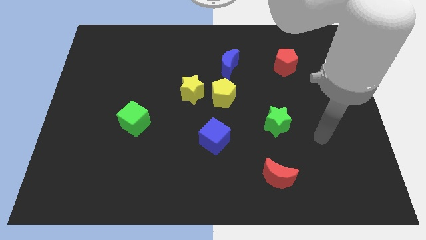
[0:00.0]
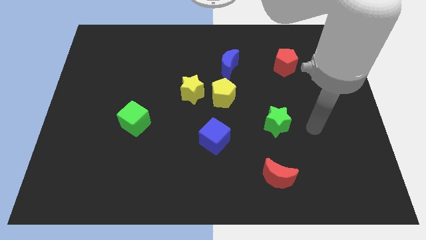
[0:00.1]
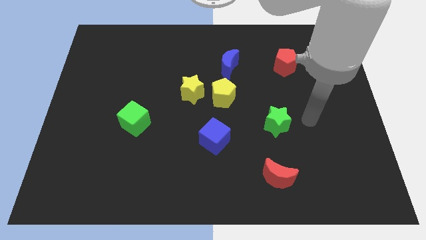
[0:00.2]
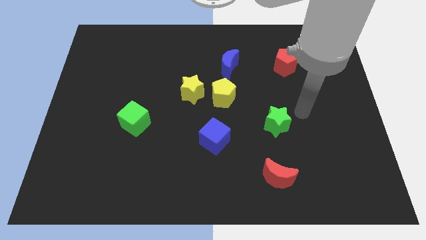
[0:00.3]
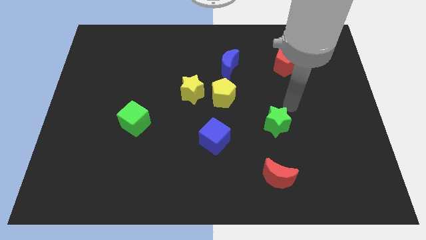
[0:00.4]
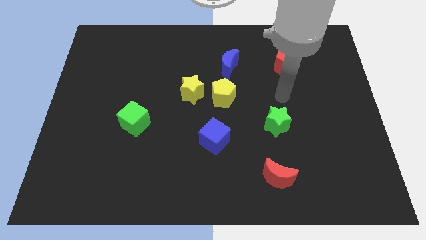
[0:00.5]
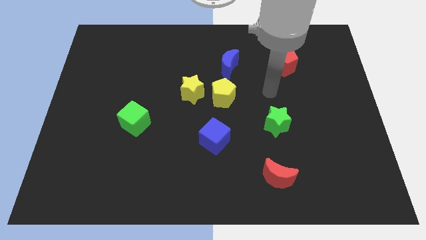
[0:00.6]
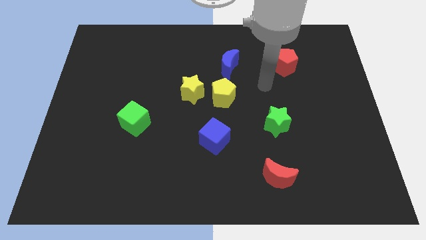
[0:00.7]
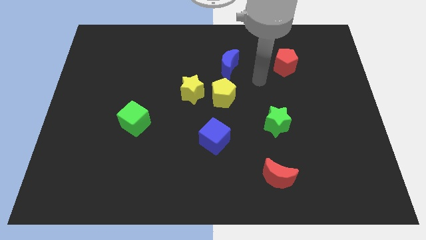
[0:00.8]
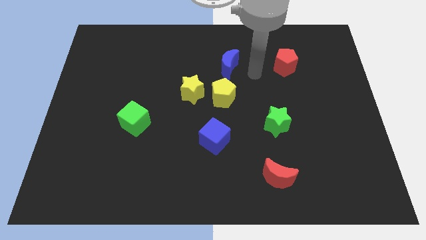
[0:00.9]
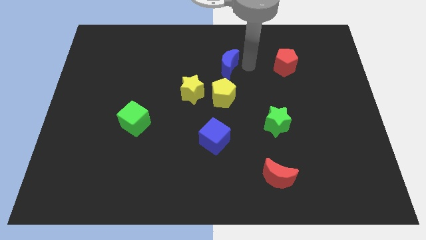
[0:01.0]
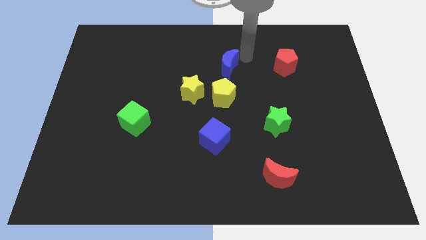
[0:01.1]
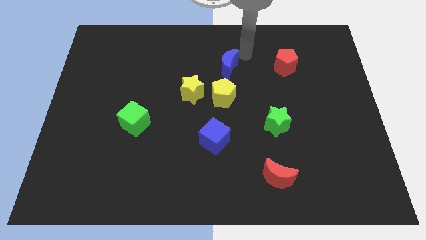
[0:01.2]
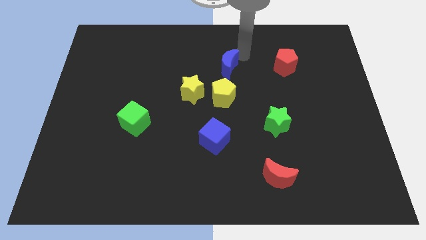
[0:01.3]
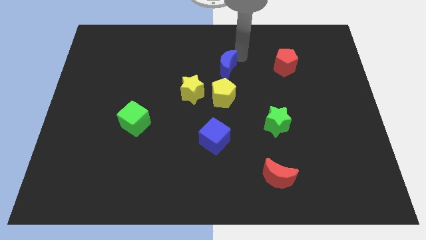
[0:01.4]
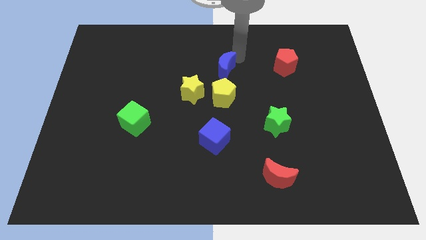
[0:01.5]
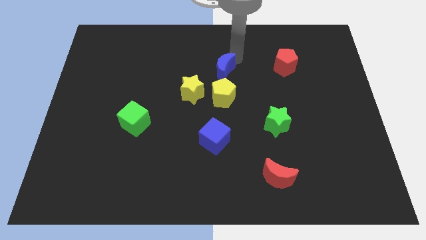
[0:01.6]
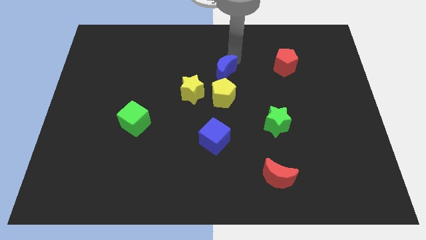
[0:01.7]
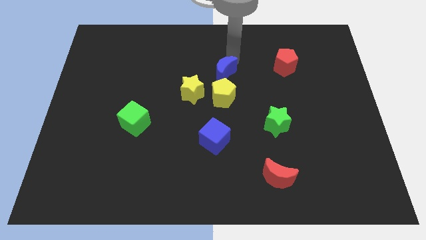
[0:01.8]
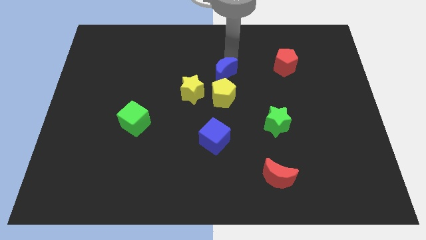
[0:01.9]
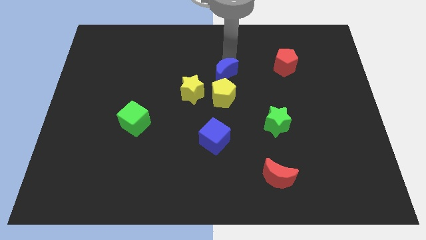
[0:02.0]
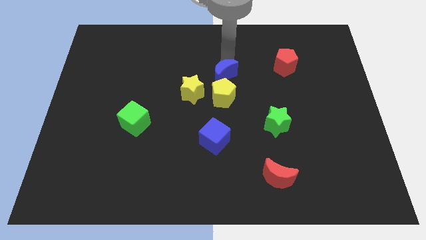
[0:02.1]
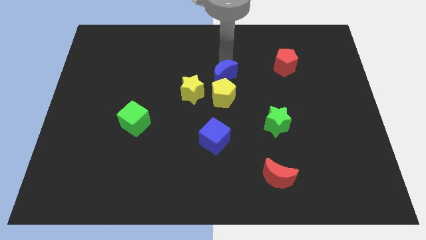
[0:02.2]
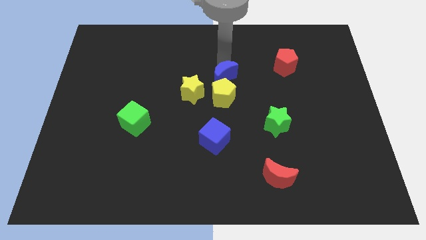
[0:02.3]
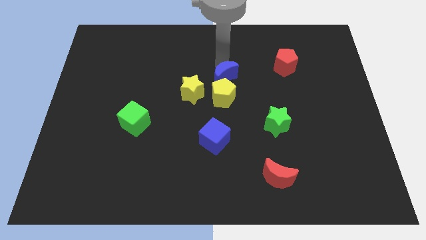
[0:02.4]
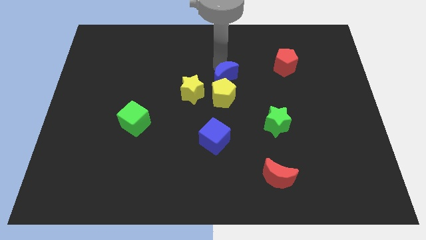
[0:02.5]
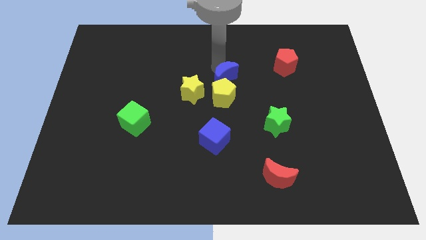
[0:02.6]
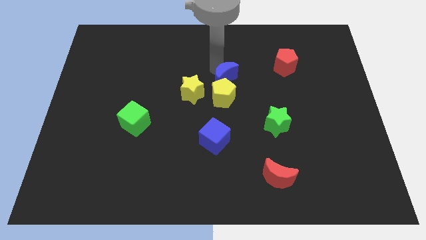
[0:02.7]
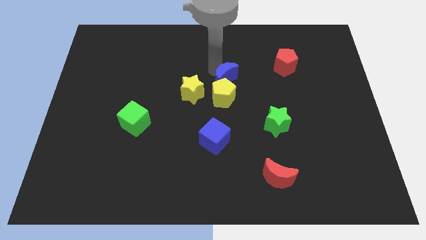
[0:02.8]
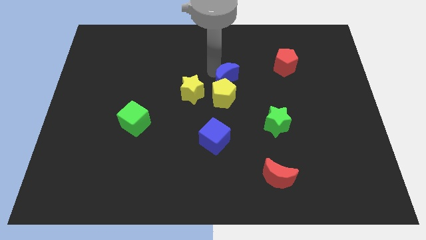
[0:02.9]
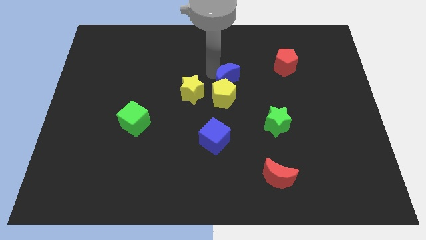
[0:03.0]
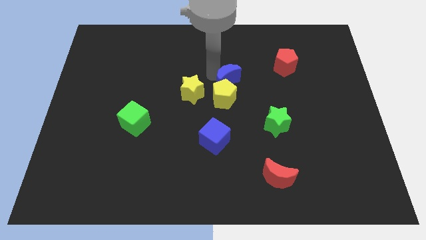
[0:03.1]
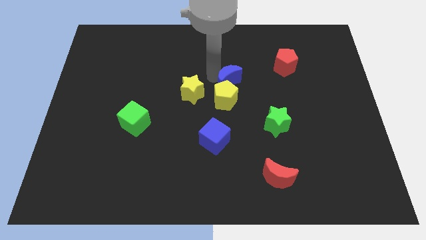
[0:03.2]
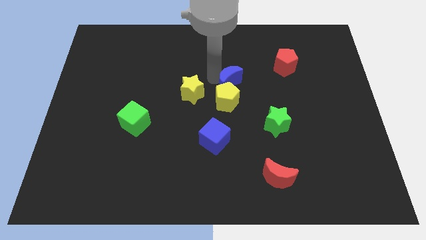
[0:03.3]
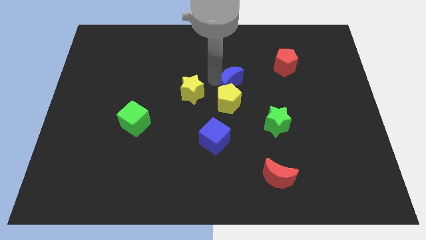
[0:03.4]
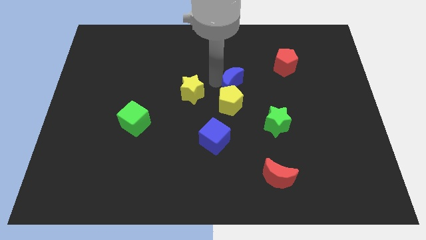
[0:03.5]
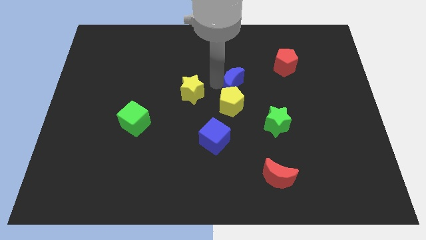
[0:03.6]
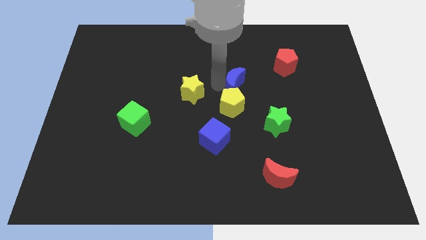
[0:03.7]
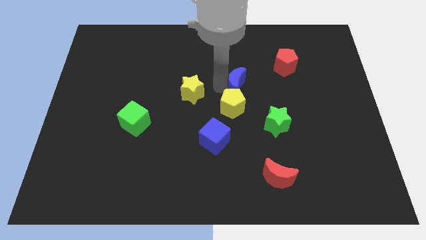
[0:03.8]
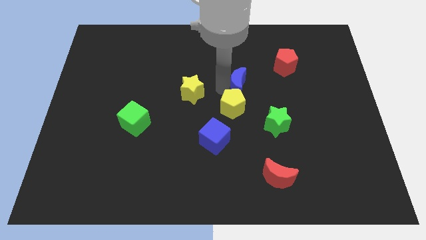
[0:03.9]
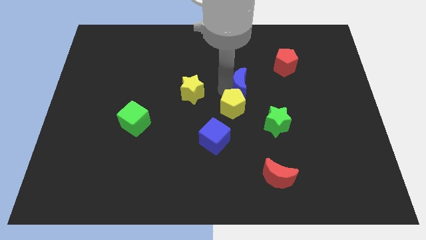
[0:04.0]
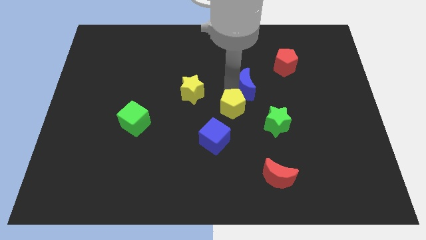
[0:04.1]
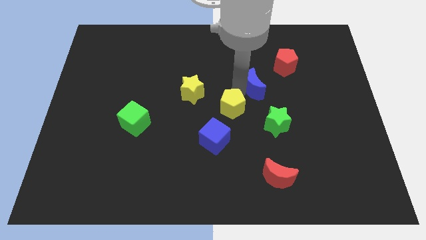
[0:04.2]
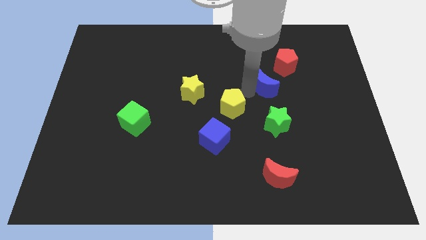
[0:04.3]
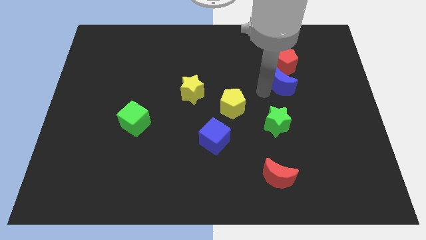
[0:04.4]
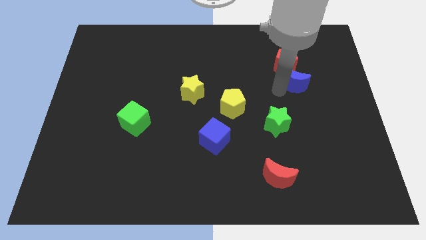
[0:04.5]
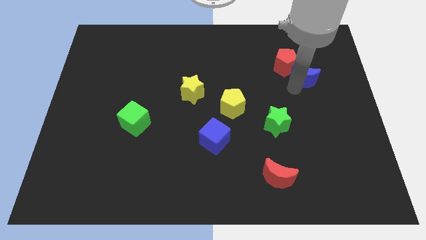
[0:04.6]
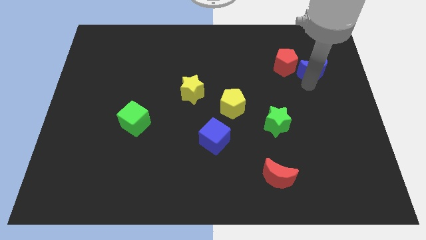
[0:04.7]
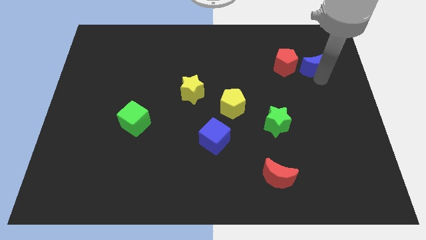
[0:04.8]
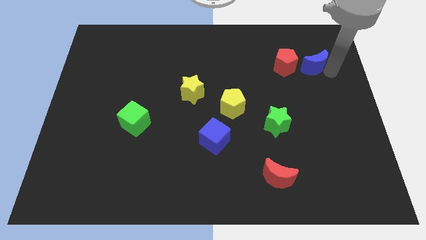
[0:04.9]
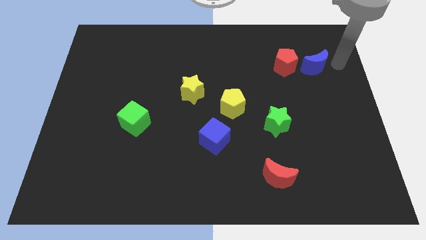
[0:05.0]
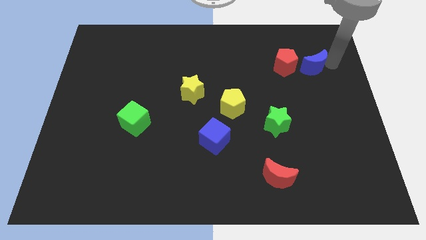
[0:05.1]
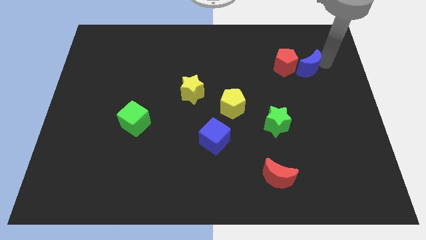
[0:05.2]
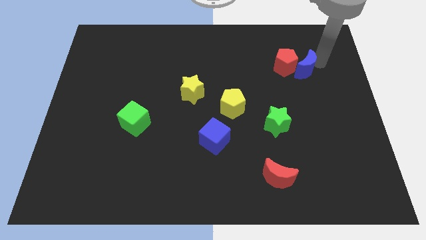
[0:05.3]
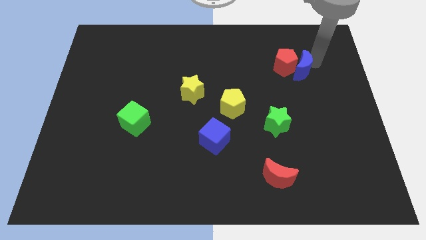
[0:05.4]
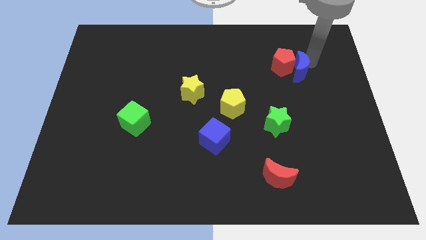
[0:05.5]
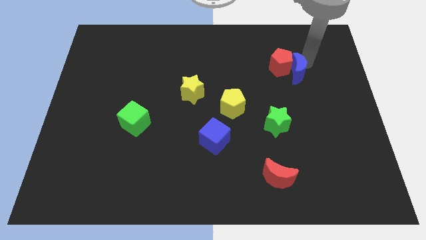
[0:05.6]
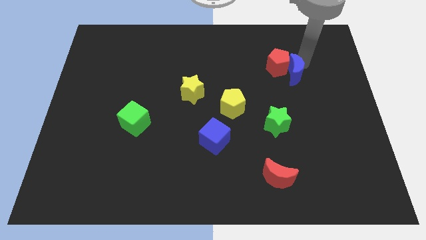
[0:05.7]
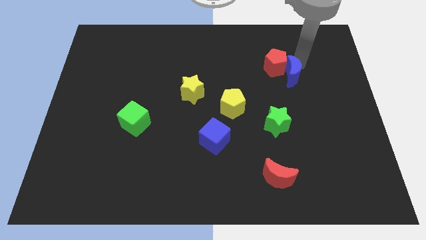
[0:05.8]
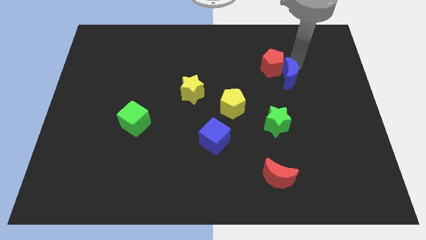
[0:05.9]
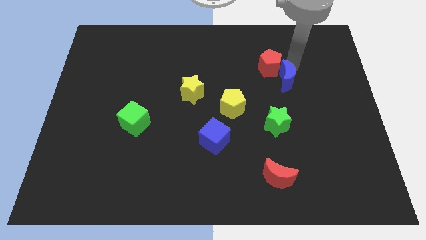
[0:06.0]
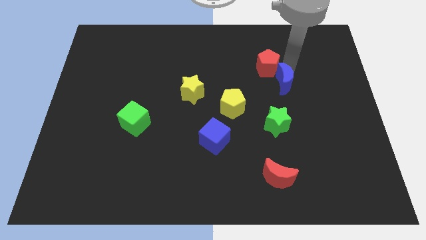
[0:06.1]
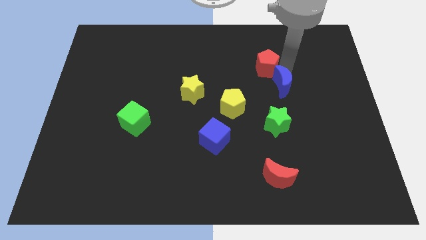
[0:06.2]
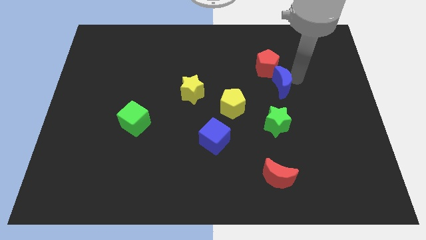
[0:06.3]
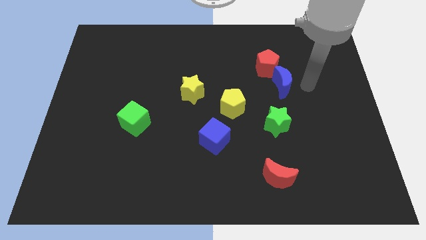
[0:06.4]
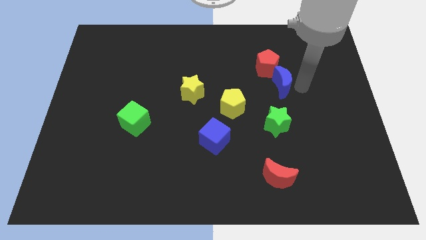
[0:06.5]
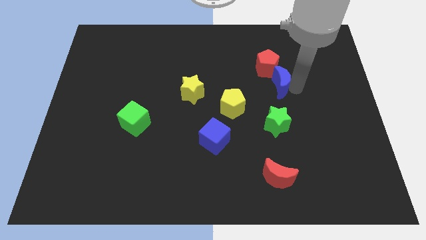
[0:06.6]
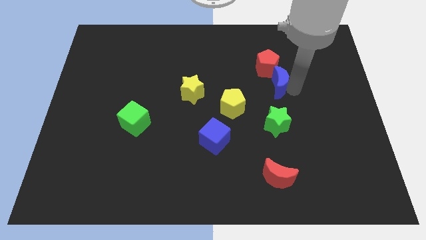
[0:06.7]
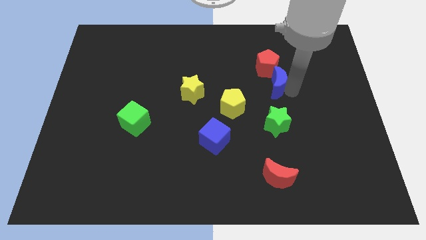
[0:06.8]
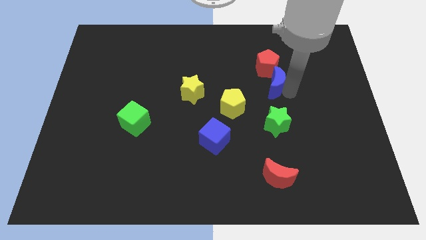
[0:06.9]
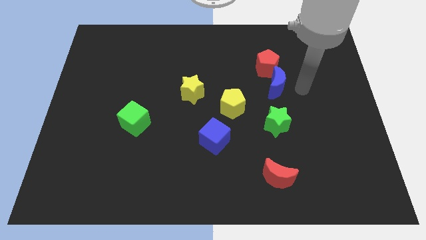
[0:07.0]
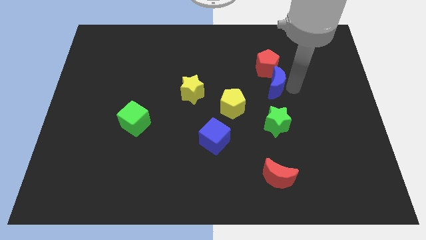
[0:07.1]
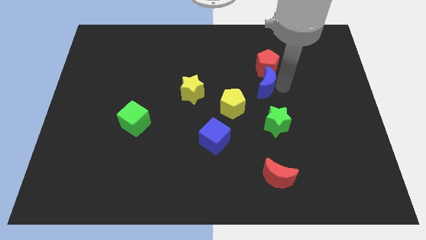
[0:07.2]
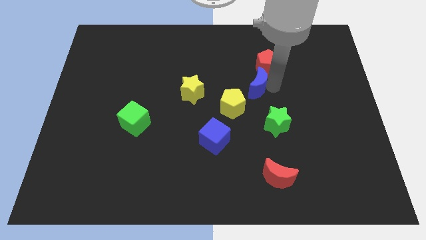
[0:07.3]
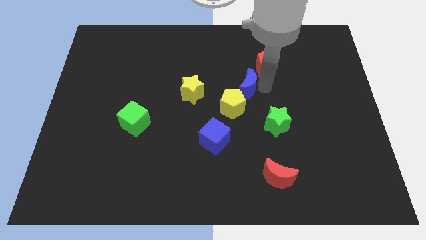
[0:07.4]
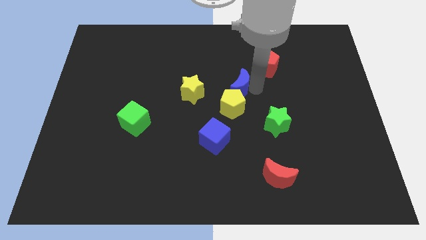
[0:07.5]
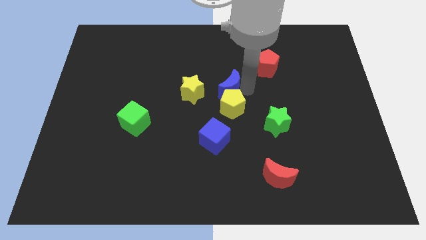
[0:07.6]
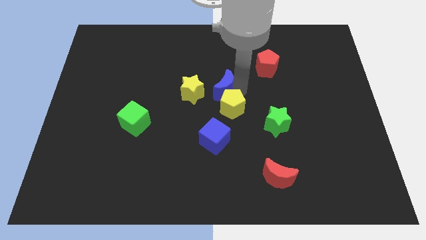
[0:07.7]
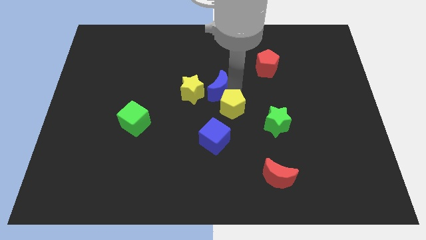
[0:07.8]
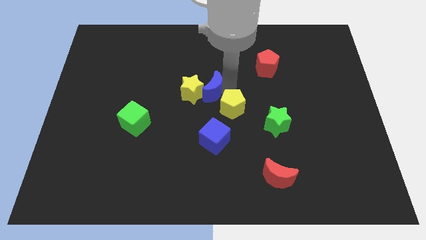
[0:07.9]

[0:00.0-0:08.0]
put the blue moon towards the yellow star

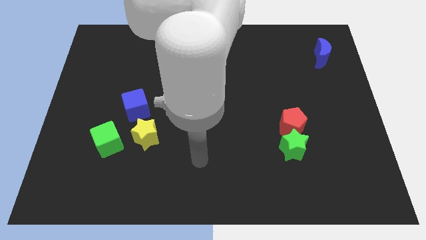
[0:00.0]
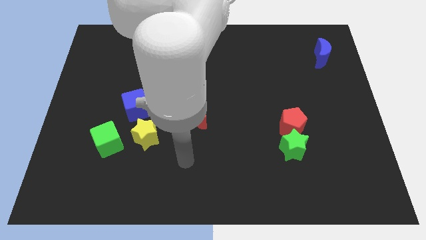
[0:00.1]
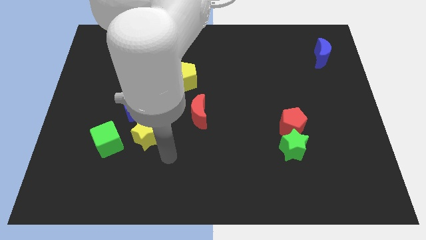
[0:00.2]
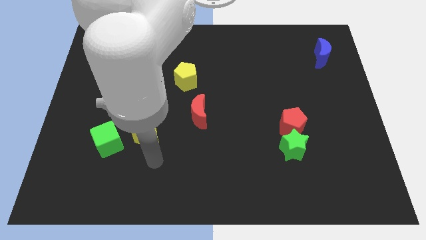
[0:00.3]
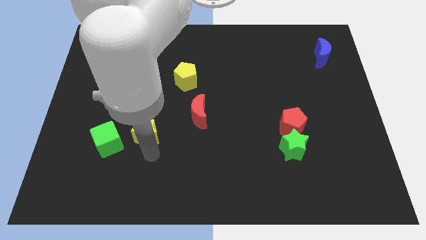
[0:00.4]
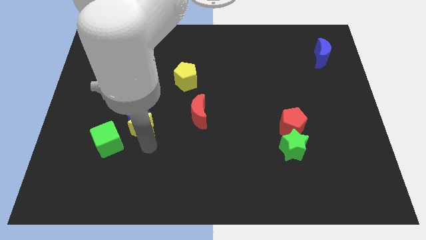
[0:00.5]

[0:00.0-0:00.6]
slide the yellow star to the blue cube
